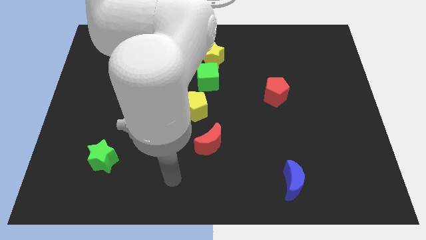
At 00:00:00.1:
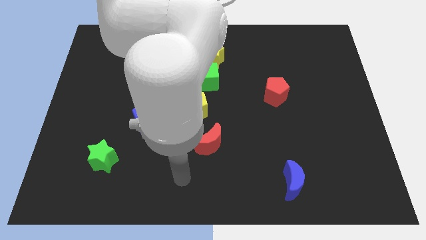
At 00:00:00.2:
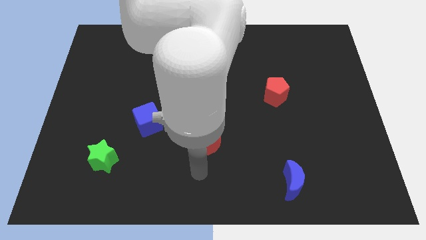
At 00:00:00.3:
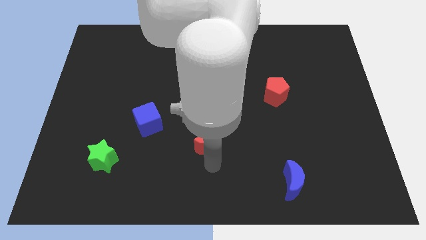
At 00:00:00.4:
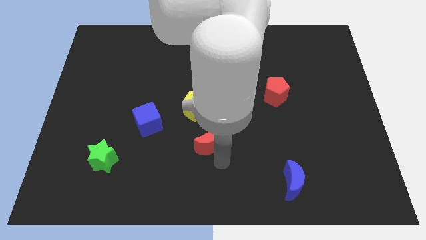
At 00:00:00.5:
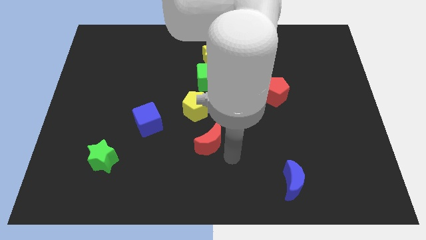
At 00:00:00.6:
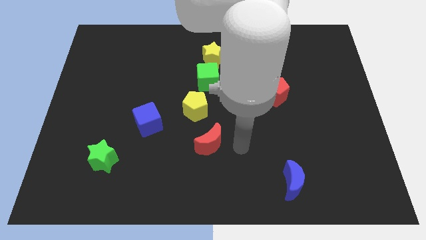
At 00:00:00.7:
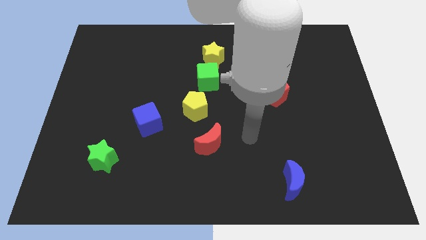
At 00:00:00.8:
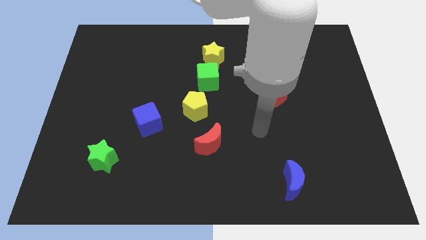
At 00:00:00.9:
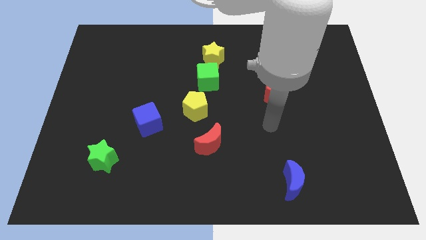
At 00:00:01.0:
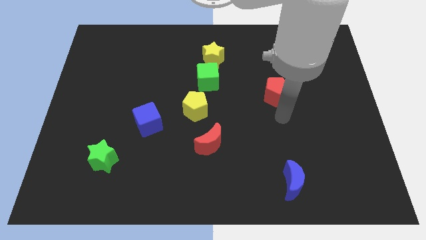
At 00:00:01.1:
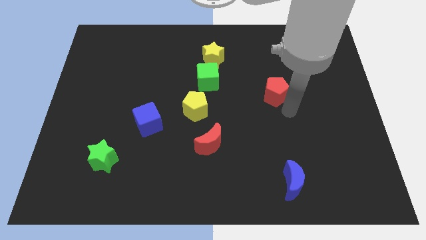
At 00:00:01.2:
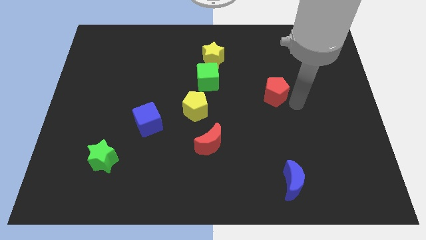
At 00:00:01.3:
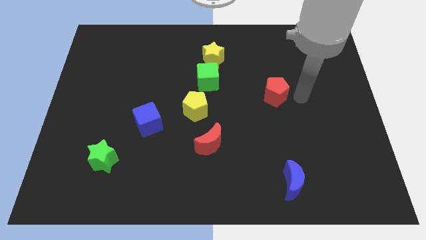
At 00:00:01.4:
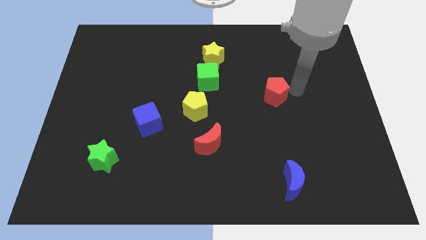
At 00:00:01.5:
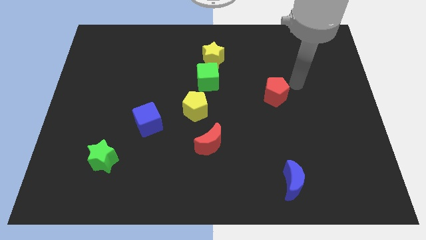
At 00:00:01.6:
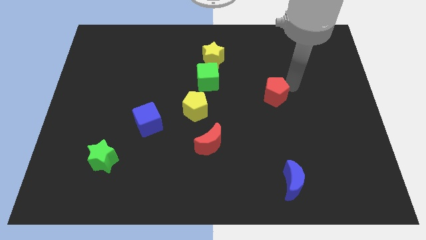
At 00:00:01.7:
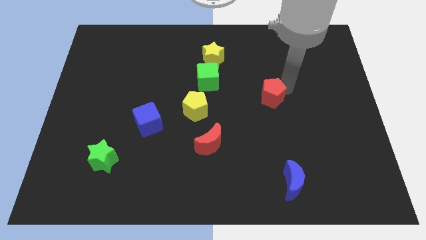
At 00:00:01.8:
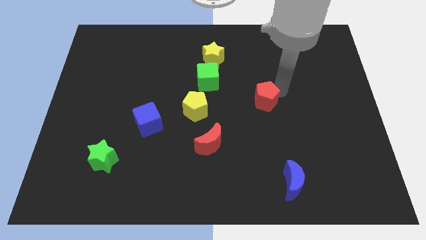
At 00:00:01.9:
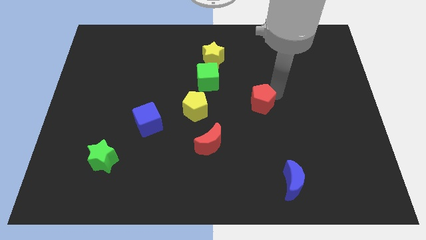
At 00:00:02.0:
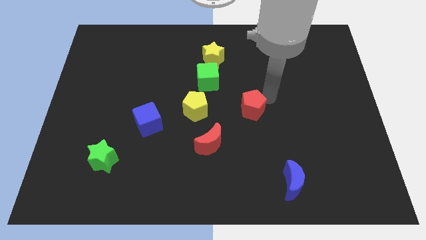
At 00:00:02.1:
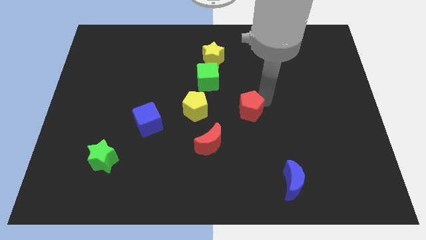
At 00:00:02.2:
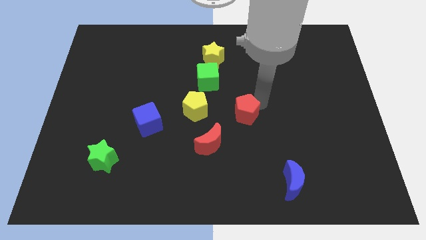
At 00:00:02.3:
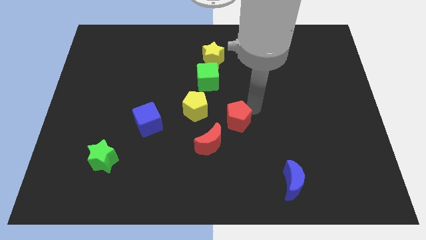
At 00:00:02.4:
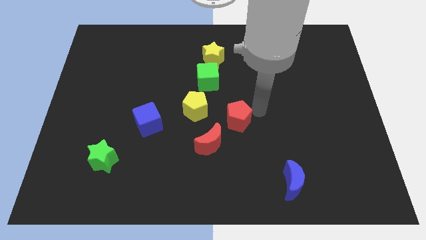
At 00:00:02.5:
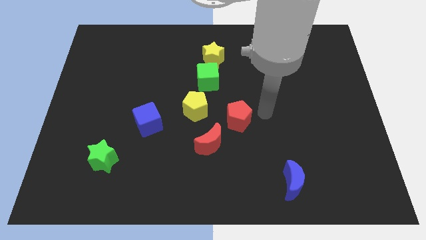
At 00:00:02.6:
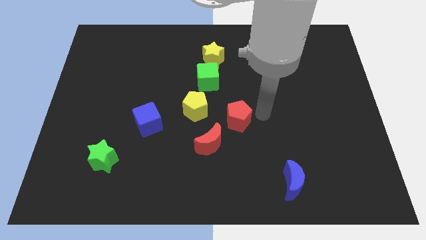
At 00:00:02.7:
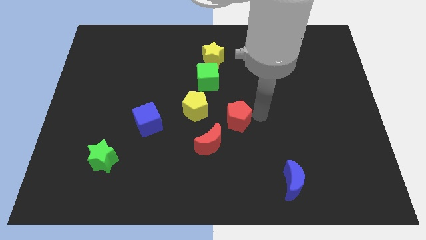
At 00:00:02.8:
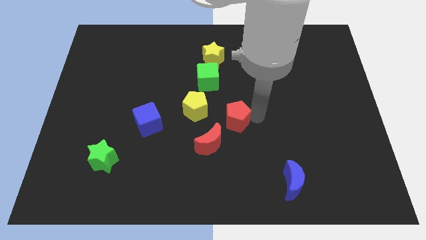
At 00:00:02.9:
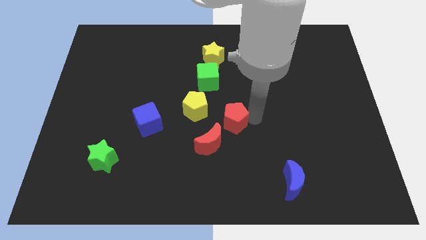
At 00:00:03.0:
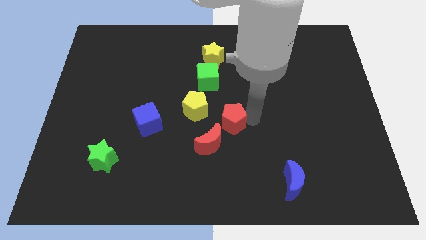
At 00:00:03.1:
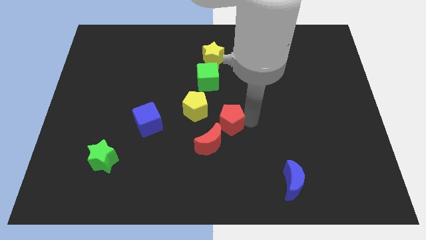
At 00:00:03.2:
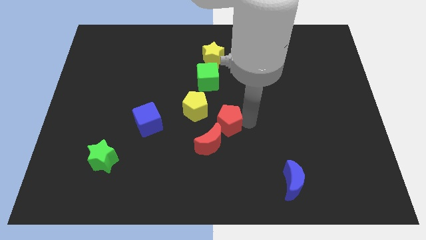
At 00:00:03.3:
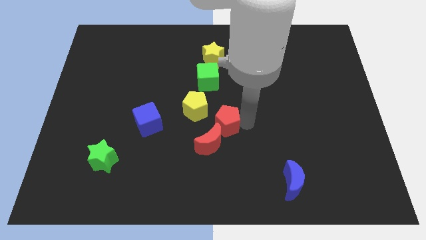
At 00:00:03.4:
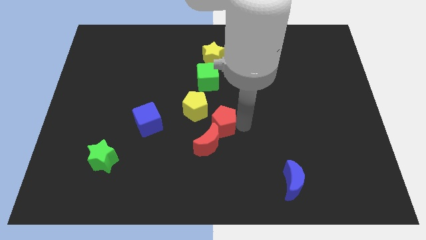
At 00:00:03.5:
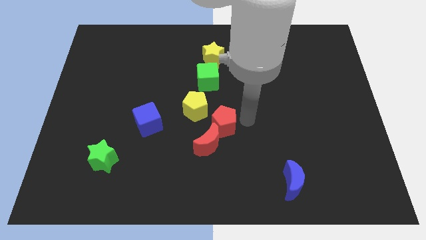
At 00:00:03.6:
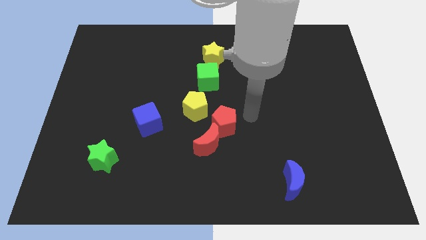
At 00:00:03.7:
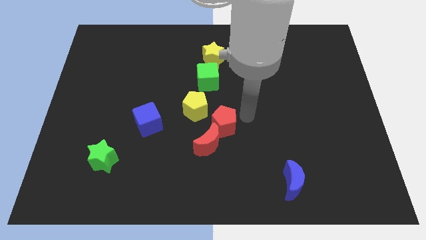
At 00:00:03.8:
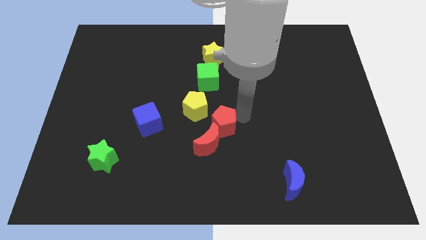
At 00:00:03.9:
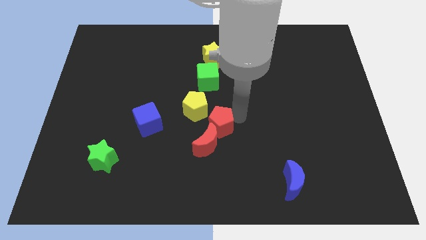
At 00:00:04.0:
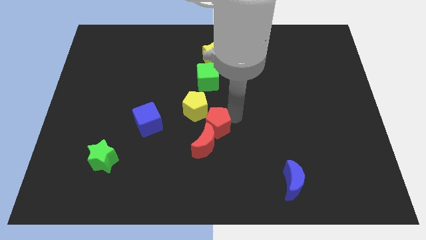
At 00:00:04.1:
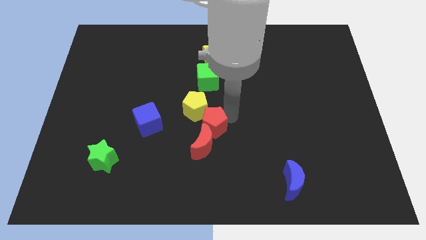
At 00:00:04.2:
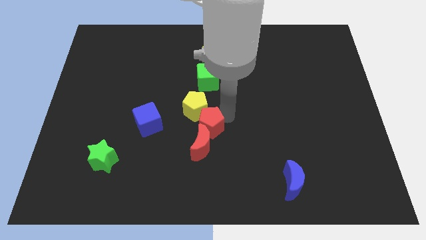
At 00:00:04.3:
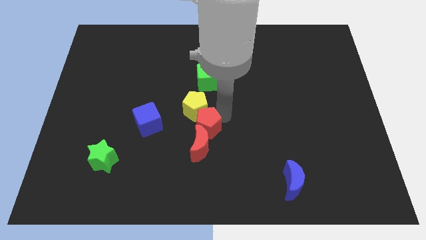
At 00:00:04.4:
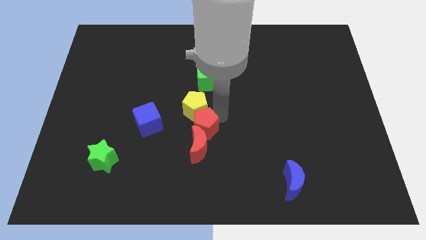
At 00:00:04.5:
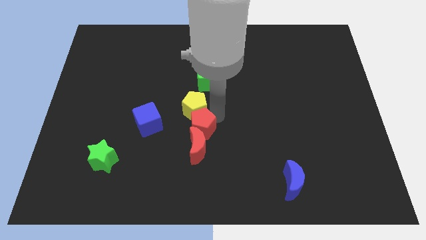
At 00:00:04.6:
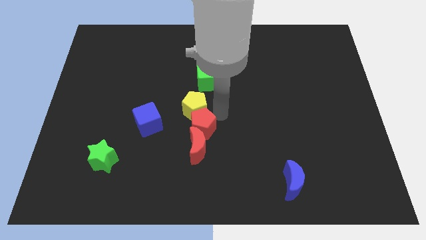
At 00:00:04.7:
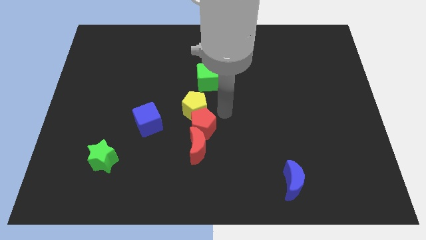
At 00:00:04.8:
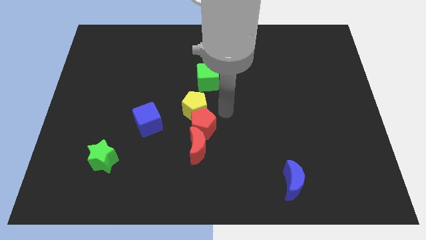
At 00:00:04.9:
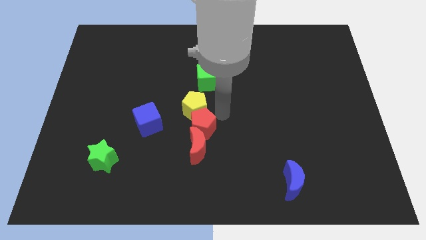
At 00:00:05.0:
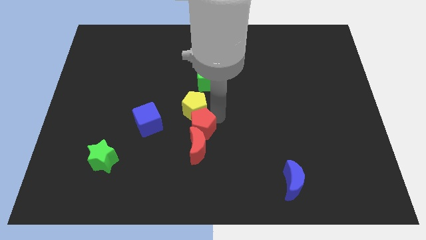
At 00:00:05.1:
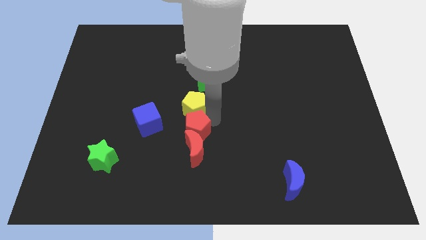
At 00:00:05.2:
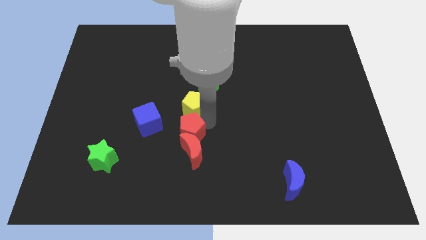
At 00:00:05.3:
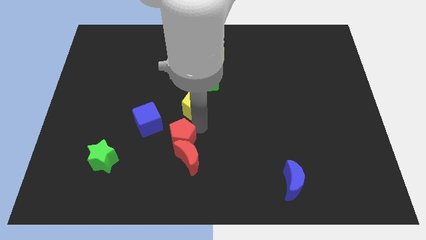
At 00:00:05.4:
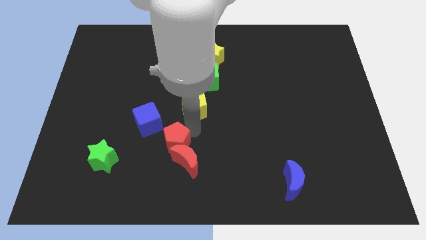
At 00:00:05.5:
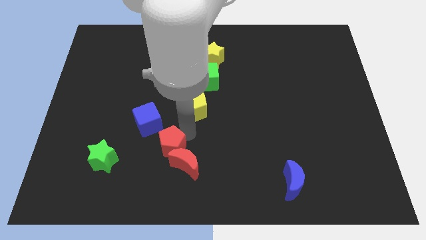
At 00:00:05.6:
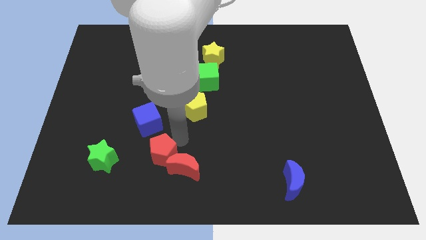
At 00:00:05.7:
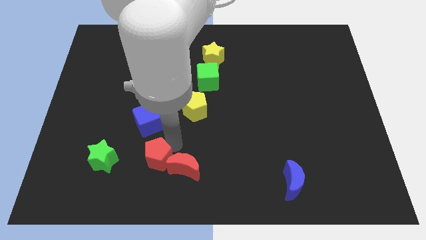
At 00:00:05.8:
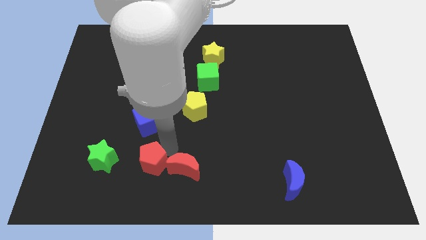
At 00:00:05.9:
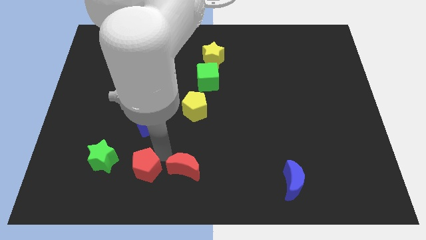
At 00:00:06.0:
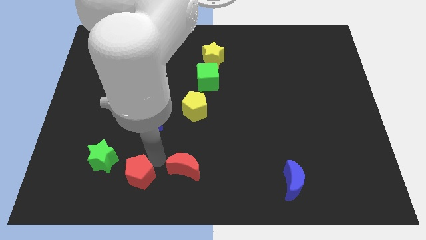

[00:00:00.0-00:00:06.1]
push the red pentagon to the bottom right side of the green star
